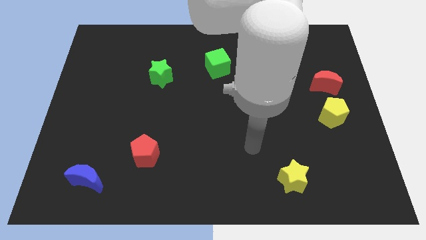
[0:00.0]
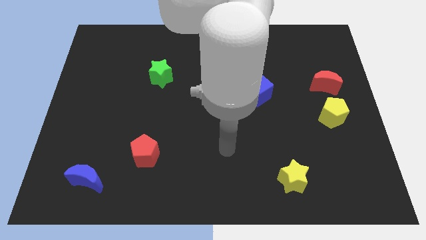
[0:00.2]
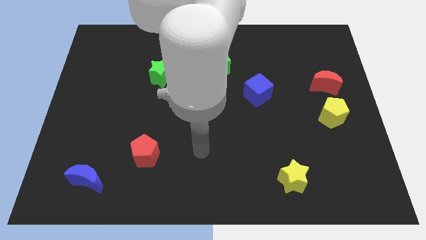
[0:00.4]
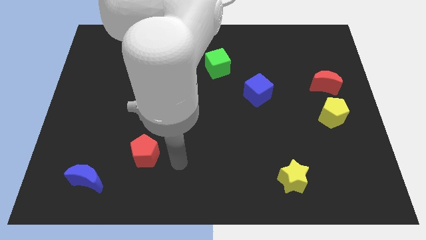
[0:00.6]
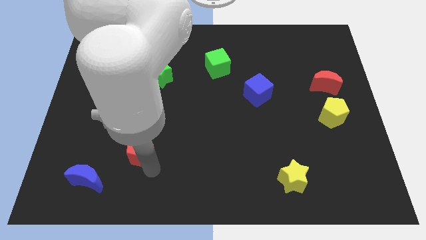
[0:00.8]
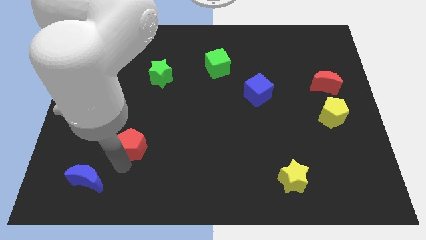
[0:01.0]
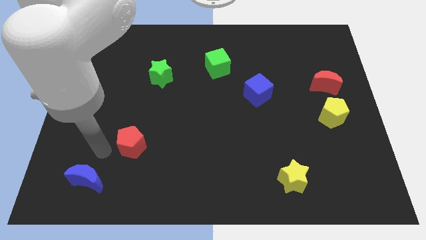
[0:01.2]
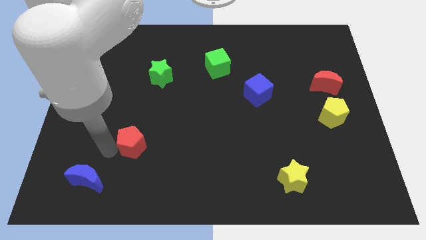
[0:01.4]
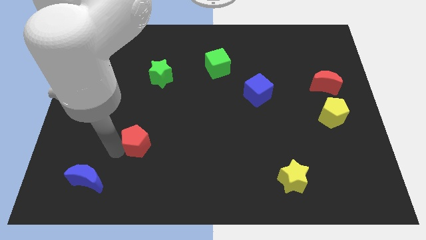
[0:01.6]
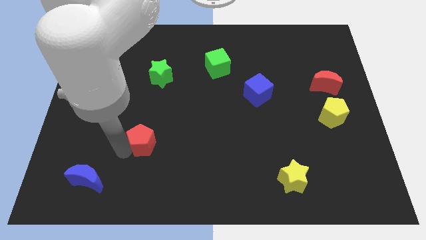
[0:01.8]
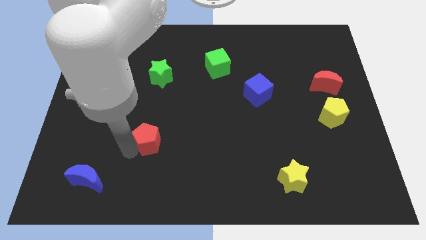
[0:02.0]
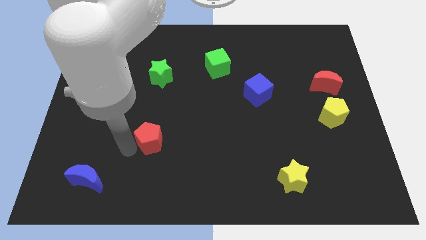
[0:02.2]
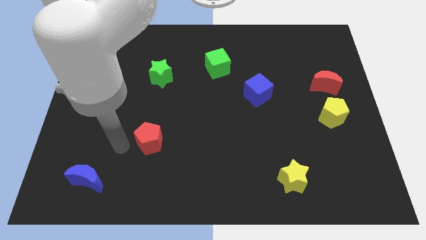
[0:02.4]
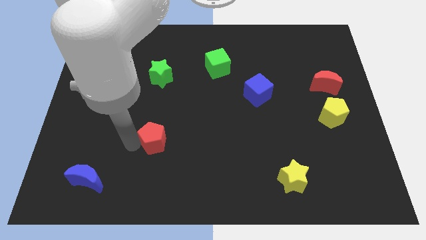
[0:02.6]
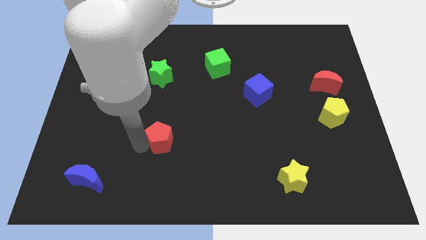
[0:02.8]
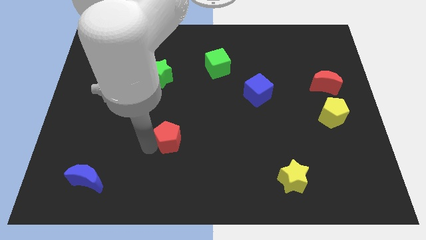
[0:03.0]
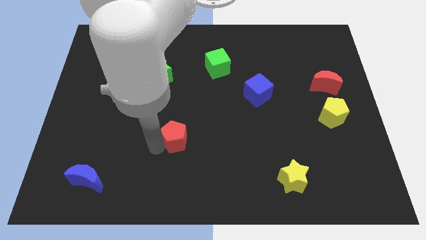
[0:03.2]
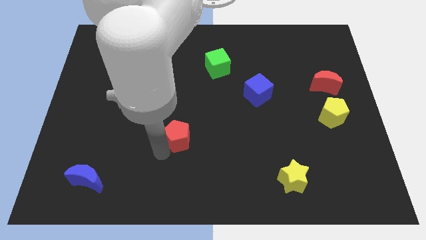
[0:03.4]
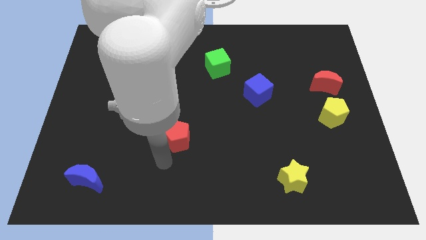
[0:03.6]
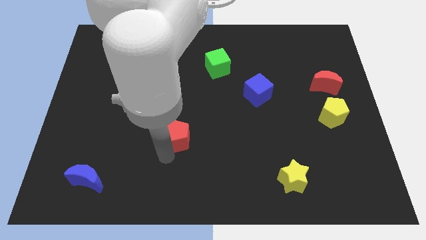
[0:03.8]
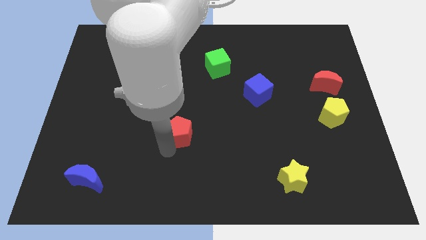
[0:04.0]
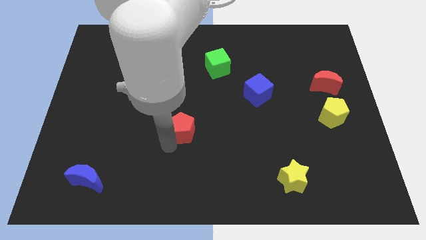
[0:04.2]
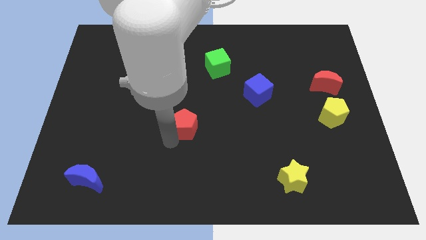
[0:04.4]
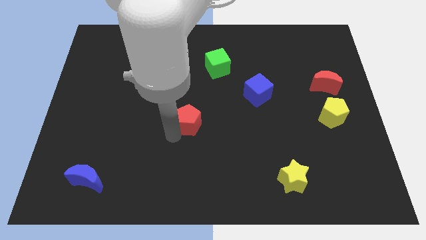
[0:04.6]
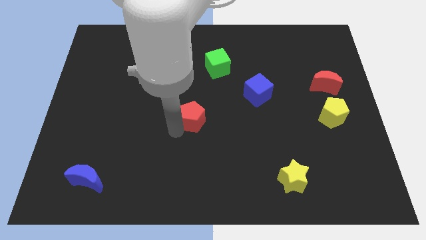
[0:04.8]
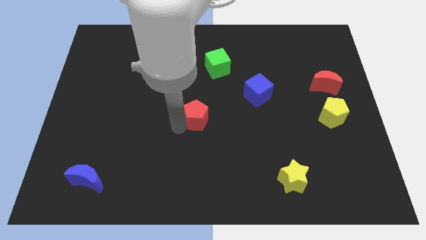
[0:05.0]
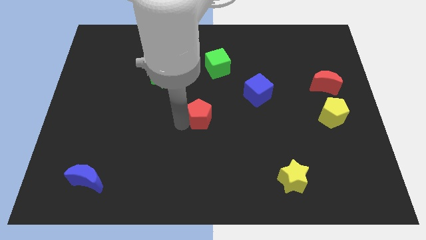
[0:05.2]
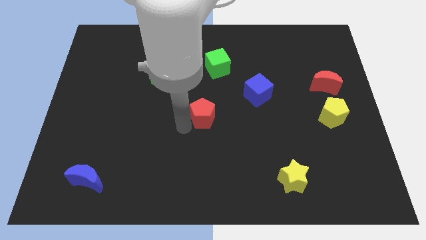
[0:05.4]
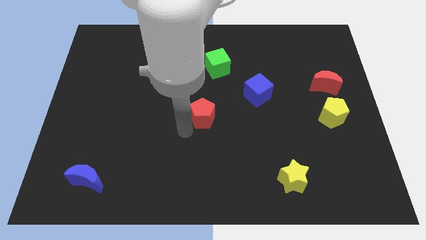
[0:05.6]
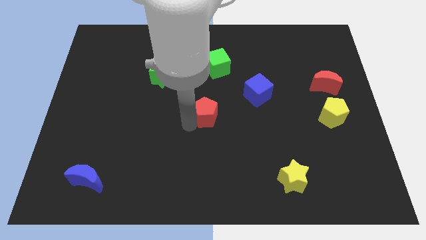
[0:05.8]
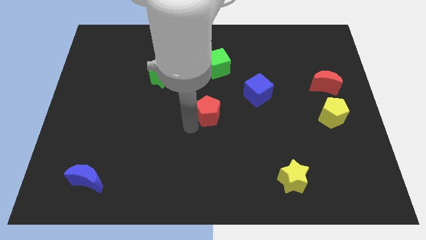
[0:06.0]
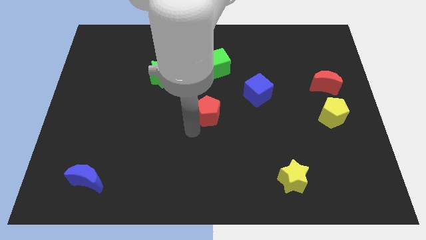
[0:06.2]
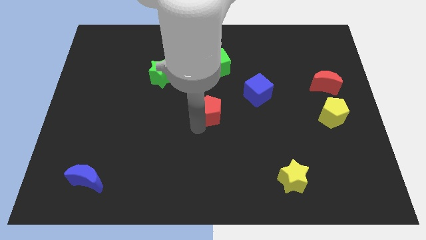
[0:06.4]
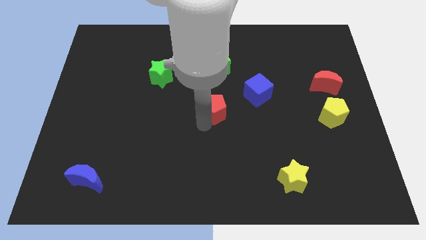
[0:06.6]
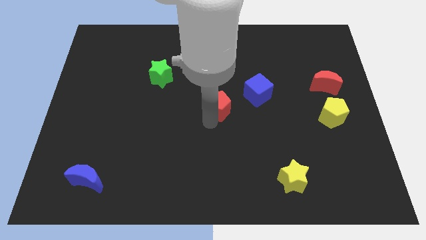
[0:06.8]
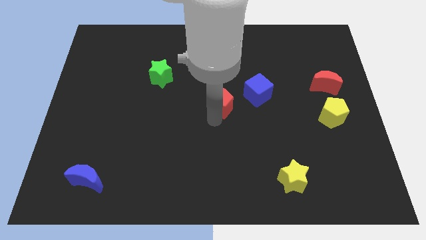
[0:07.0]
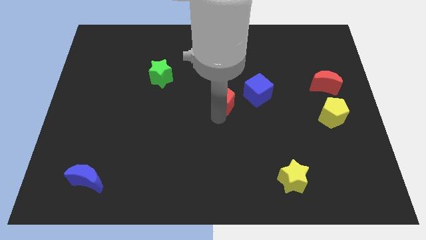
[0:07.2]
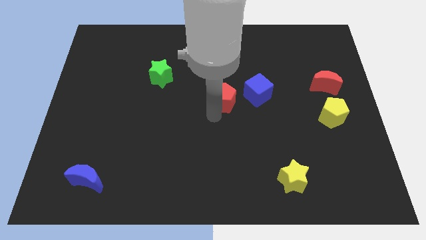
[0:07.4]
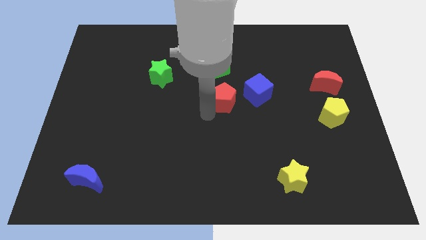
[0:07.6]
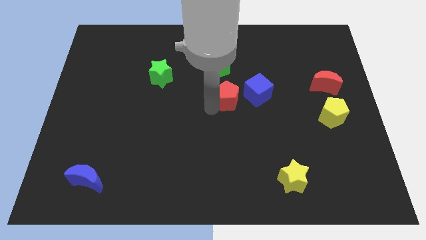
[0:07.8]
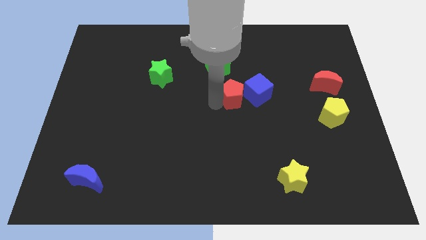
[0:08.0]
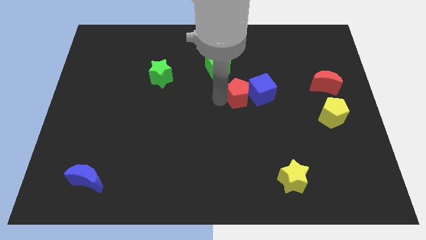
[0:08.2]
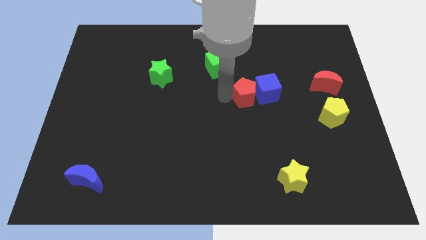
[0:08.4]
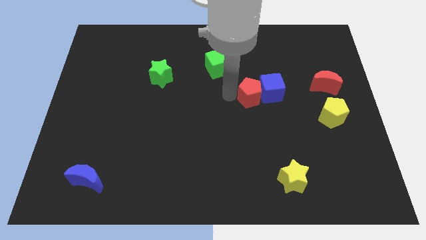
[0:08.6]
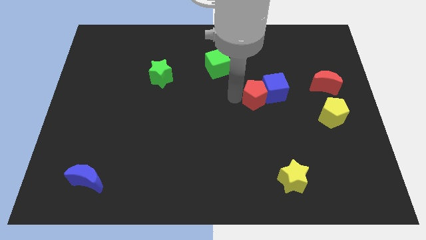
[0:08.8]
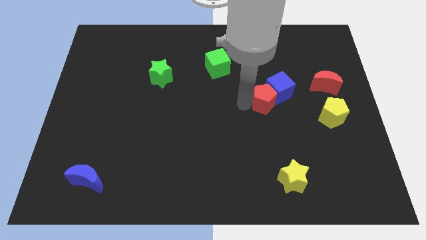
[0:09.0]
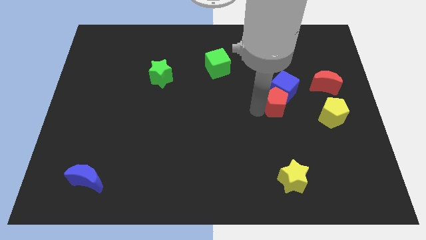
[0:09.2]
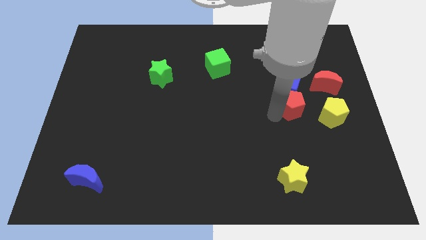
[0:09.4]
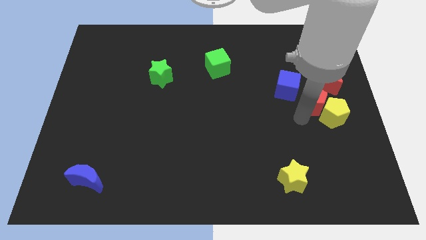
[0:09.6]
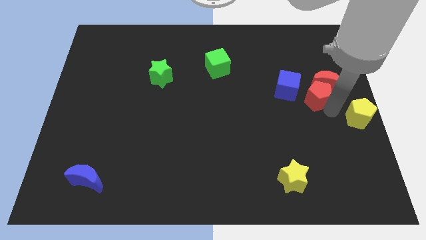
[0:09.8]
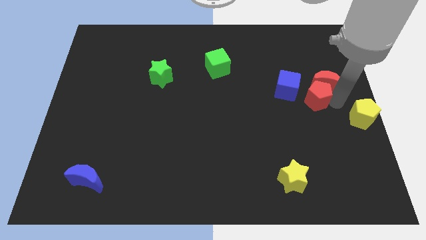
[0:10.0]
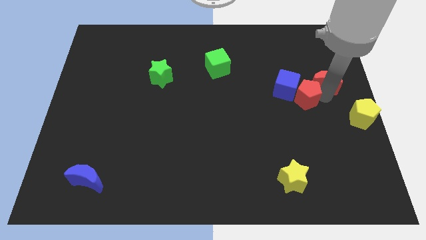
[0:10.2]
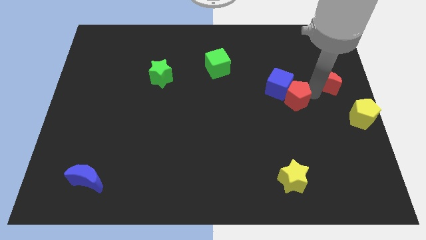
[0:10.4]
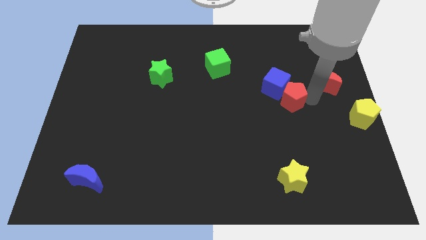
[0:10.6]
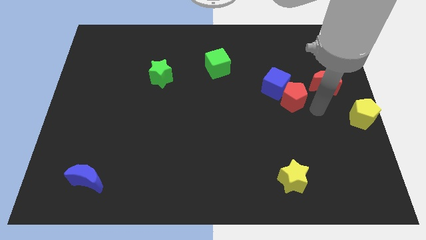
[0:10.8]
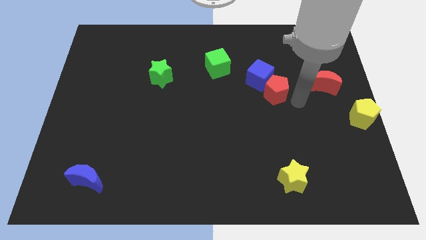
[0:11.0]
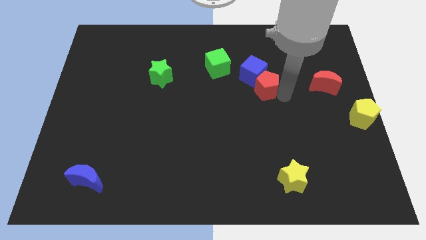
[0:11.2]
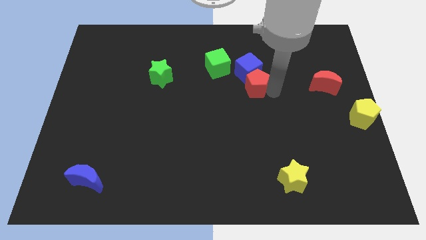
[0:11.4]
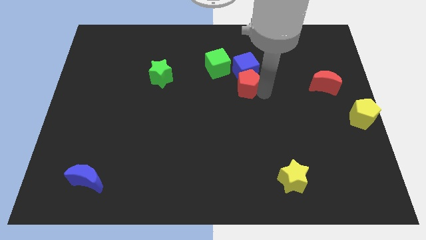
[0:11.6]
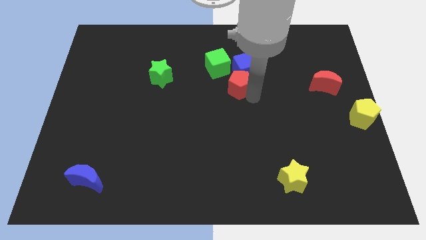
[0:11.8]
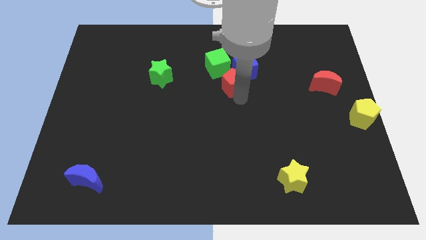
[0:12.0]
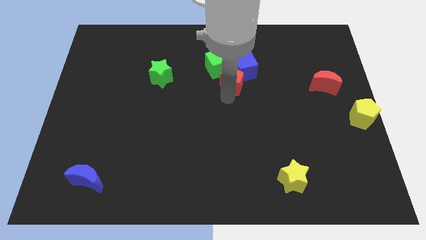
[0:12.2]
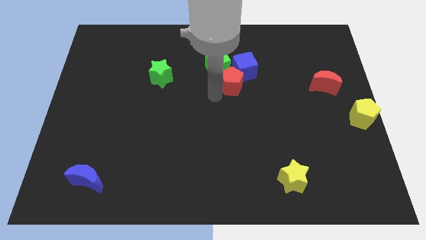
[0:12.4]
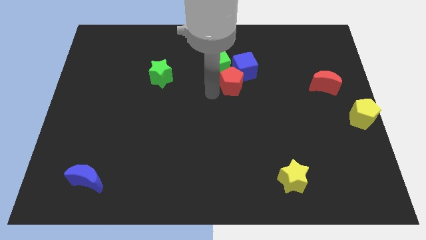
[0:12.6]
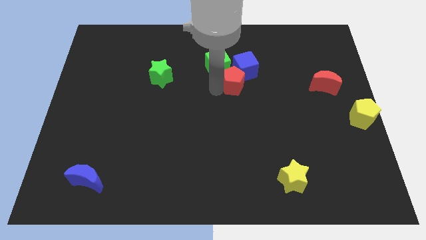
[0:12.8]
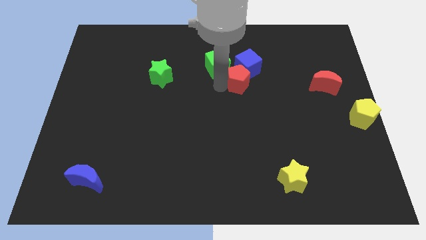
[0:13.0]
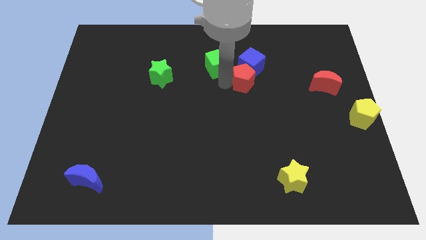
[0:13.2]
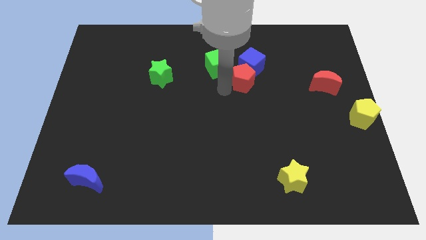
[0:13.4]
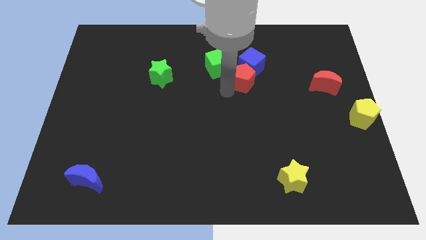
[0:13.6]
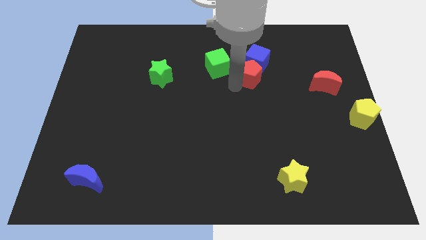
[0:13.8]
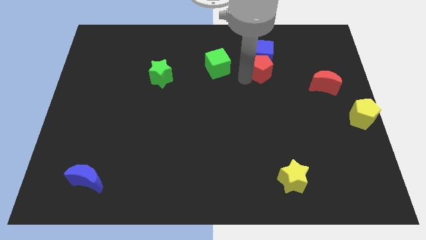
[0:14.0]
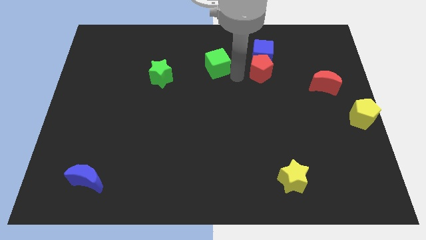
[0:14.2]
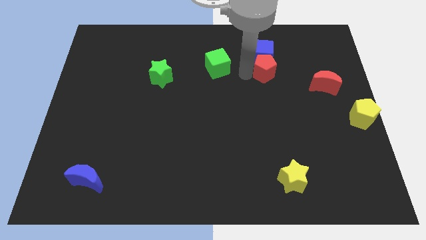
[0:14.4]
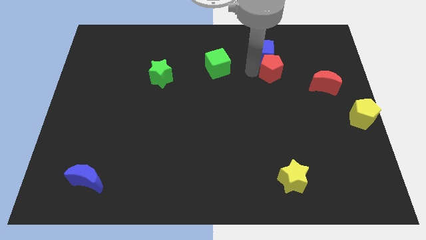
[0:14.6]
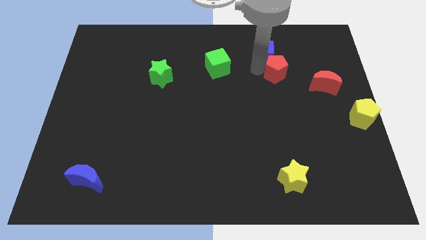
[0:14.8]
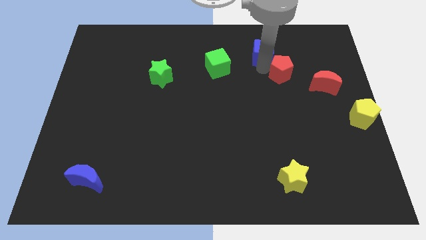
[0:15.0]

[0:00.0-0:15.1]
push the red pentagon to the top left side of the red moon
